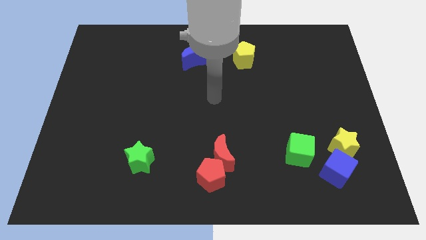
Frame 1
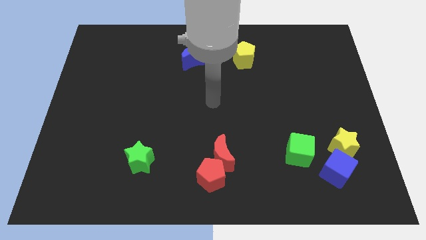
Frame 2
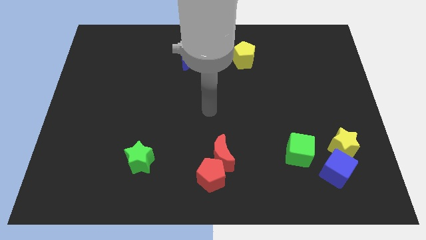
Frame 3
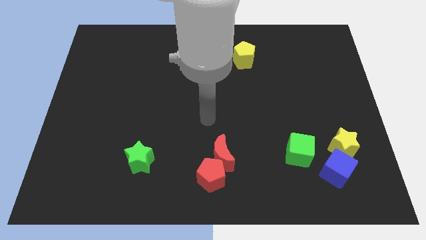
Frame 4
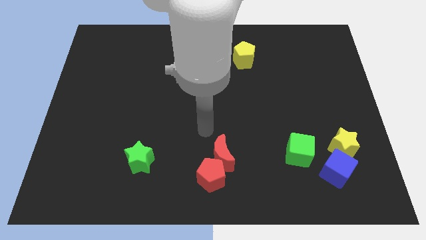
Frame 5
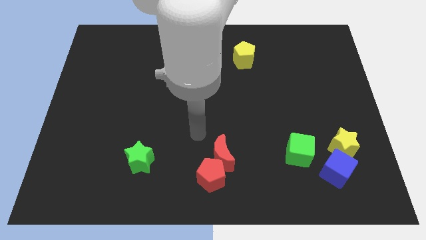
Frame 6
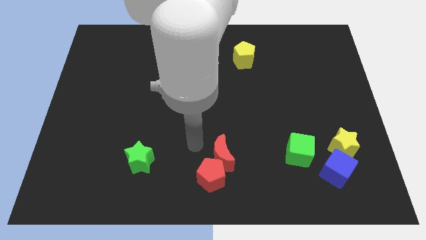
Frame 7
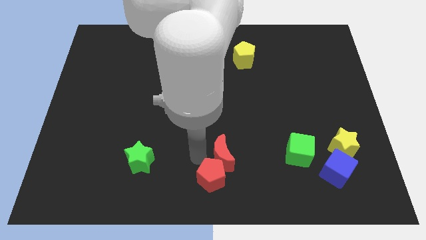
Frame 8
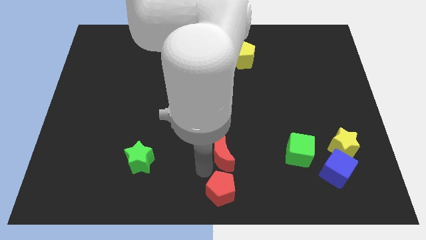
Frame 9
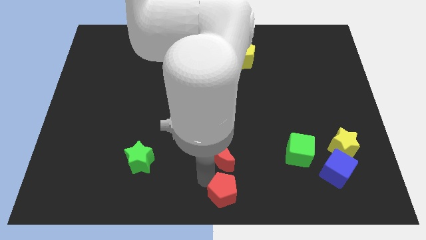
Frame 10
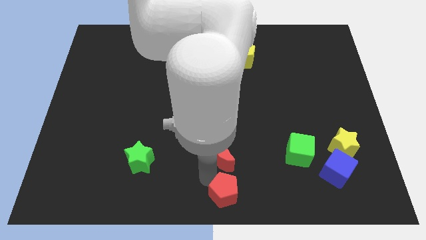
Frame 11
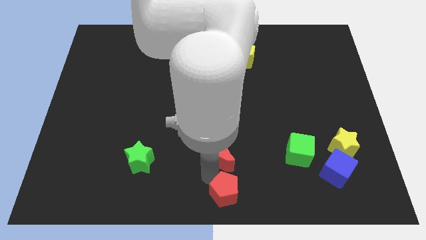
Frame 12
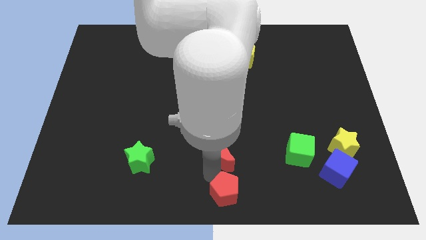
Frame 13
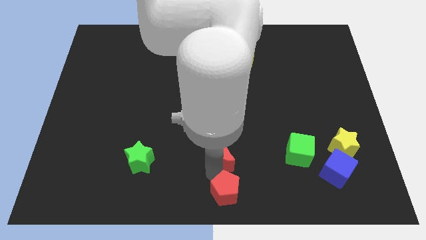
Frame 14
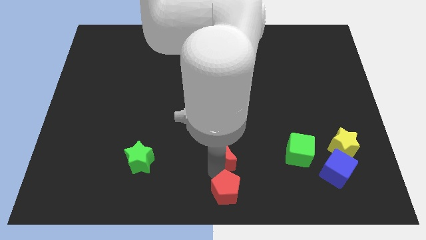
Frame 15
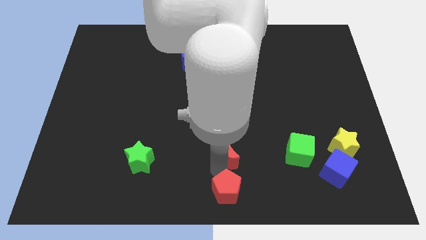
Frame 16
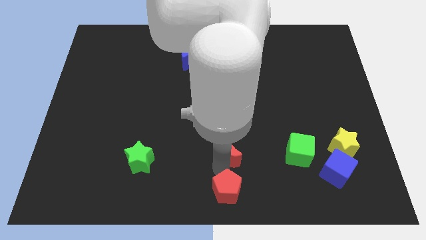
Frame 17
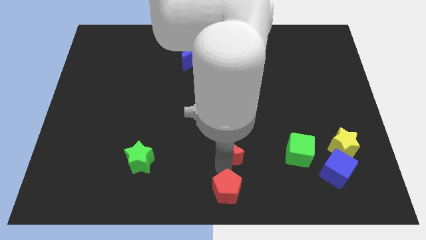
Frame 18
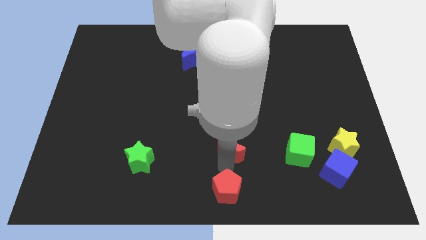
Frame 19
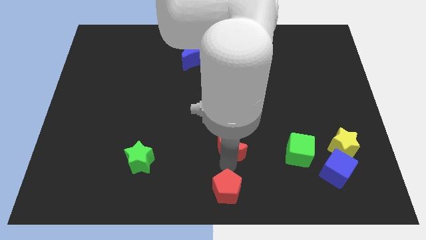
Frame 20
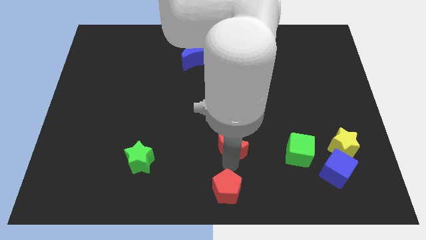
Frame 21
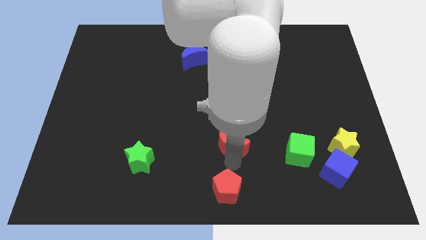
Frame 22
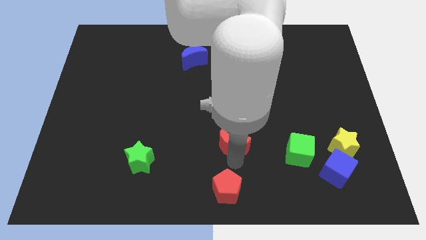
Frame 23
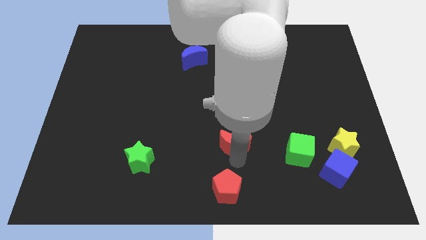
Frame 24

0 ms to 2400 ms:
separate the red moon from the red pentagon

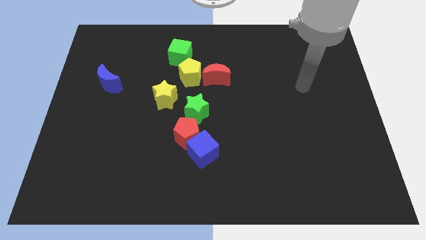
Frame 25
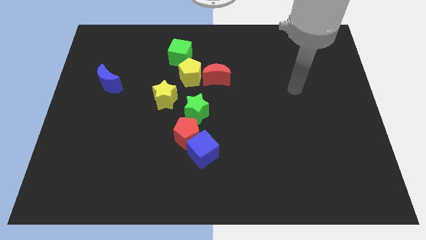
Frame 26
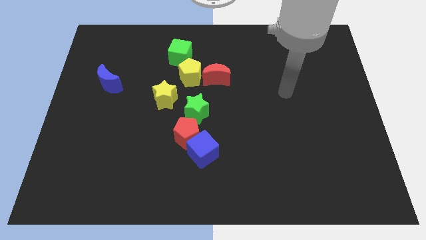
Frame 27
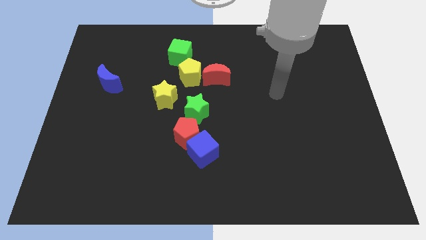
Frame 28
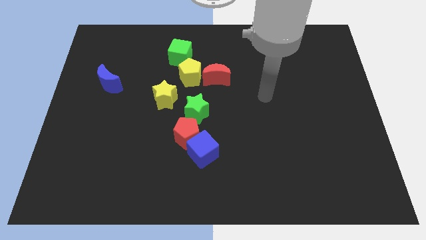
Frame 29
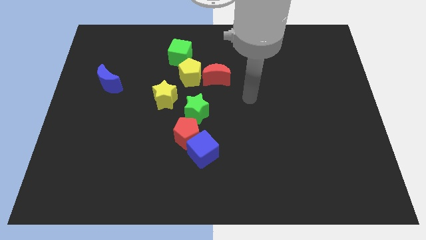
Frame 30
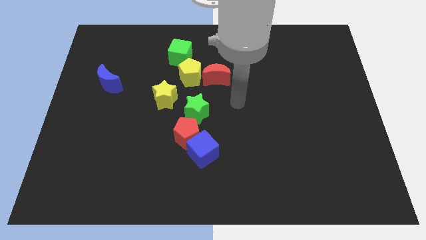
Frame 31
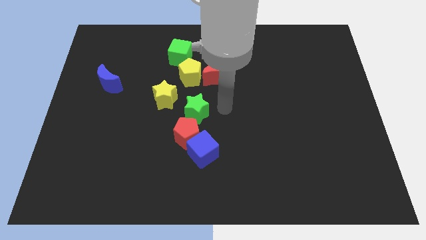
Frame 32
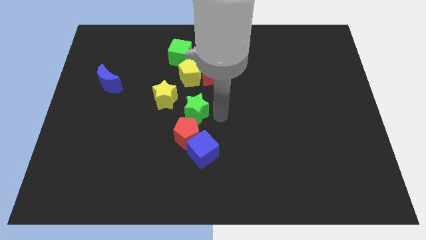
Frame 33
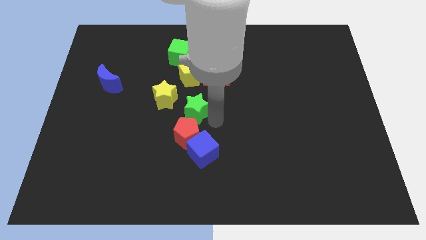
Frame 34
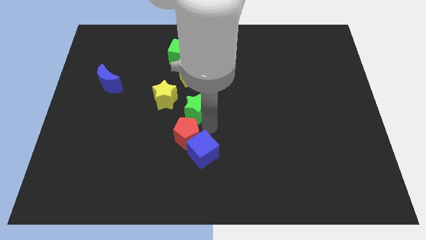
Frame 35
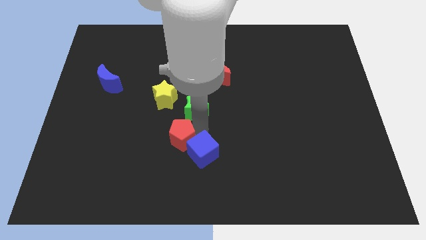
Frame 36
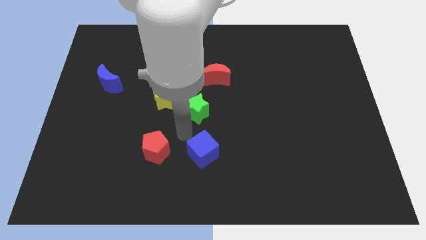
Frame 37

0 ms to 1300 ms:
move the blue cube away from the red pentagon

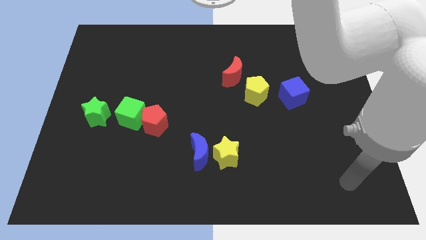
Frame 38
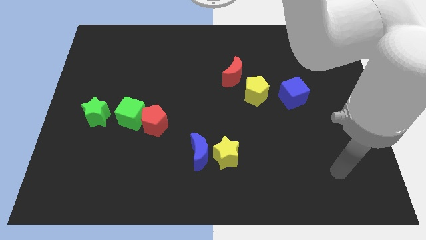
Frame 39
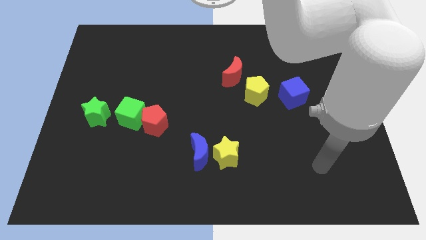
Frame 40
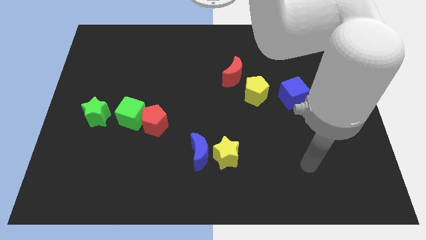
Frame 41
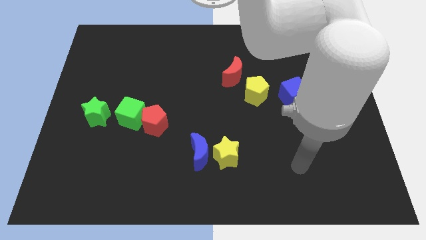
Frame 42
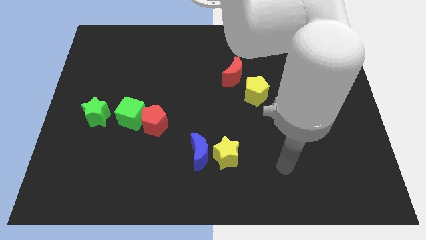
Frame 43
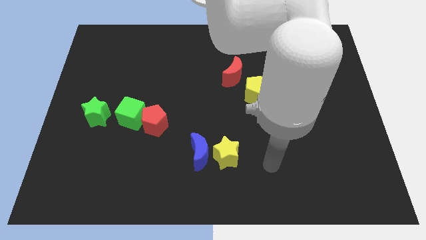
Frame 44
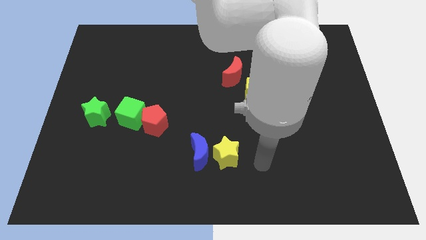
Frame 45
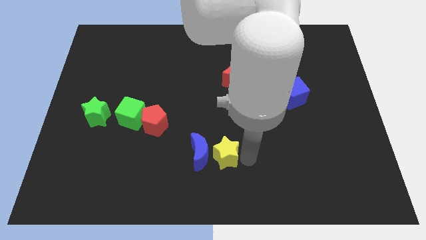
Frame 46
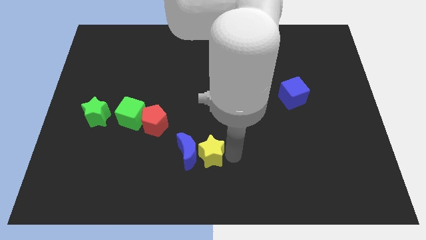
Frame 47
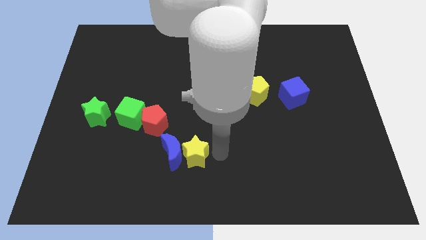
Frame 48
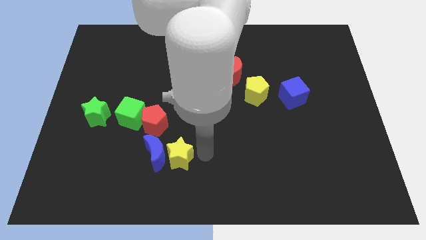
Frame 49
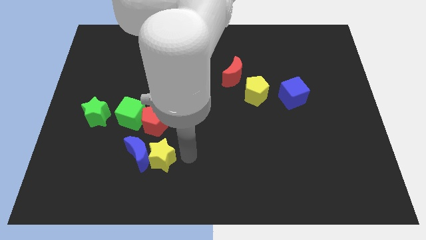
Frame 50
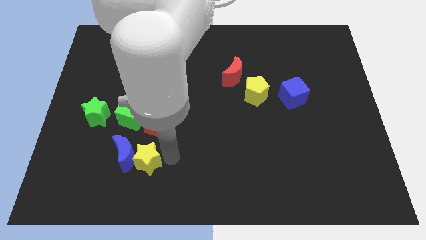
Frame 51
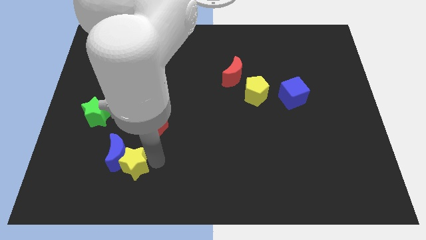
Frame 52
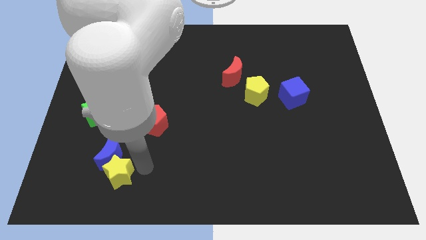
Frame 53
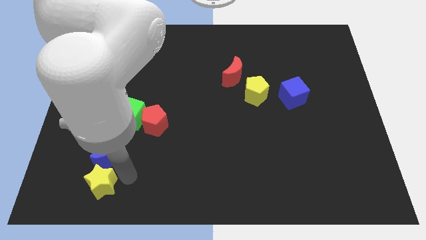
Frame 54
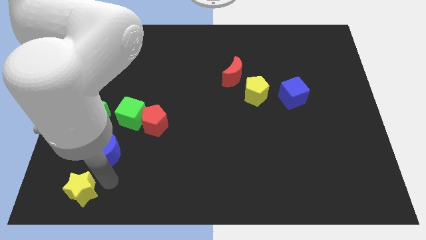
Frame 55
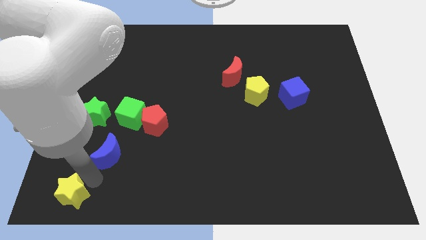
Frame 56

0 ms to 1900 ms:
separate the blue moon from the yellow star

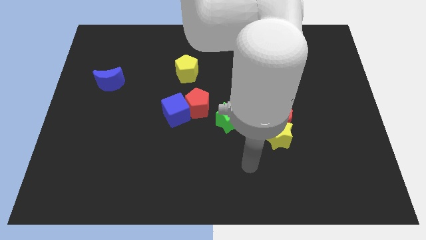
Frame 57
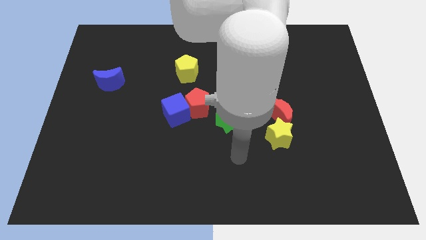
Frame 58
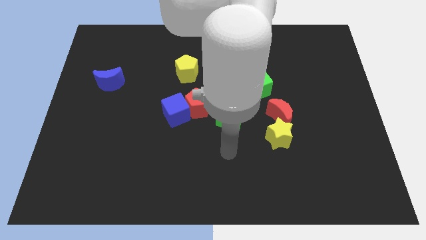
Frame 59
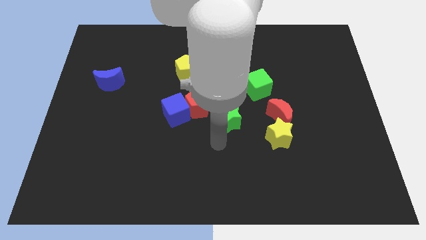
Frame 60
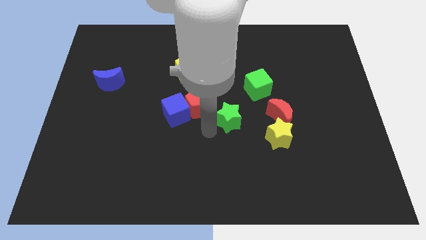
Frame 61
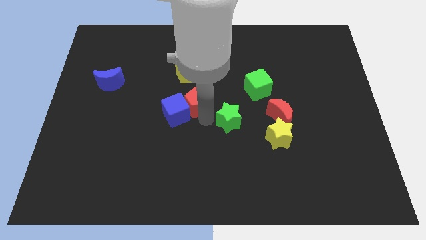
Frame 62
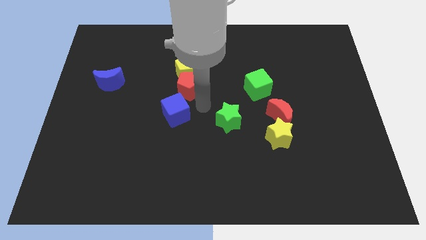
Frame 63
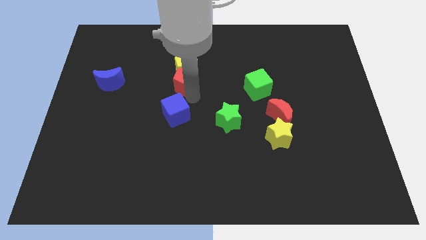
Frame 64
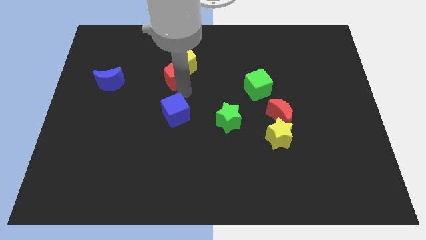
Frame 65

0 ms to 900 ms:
pull the blue cube apart from the red pentagon

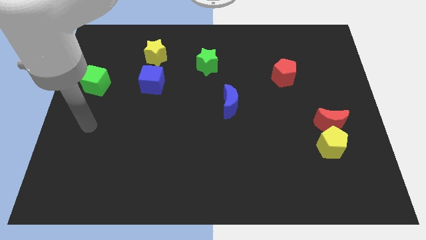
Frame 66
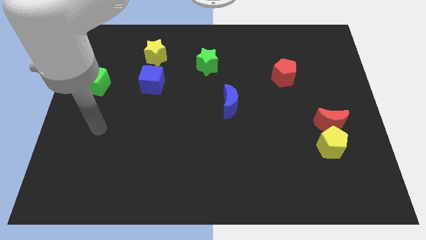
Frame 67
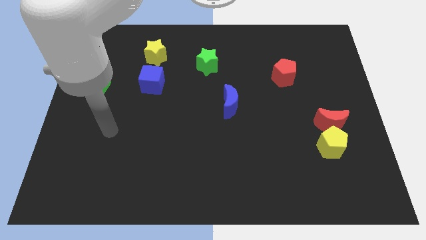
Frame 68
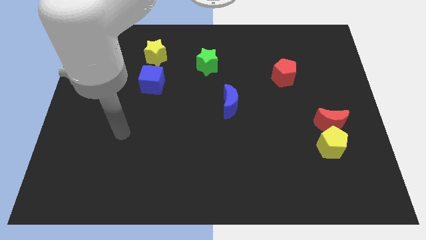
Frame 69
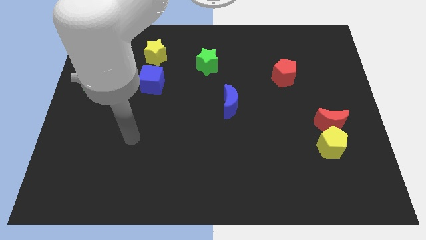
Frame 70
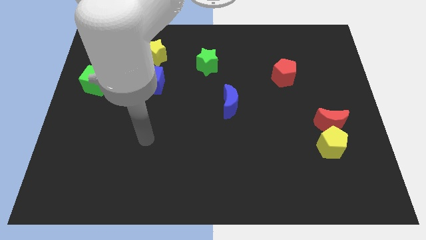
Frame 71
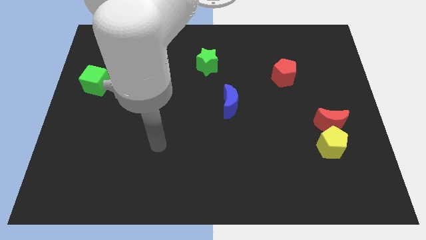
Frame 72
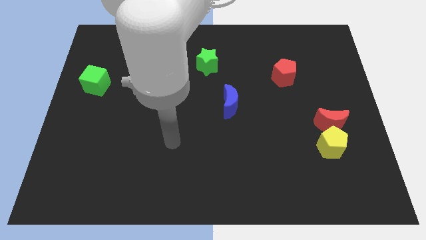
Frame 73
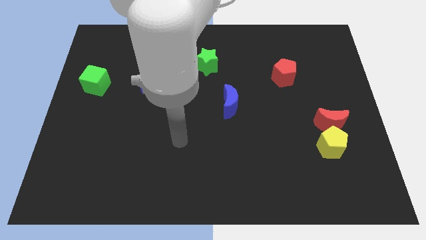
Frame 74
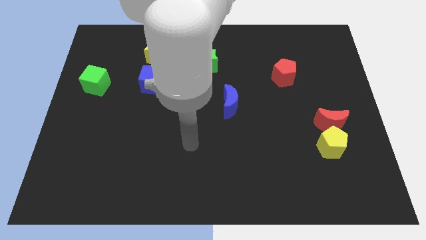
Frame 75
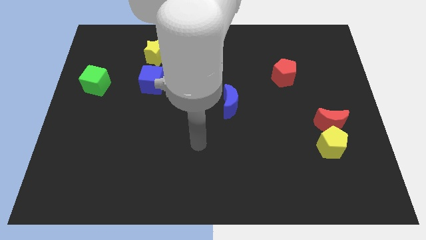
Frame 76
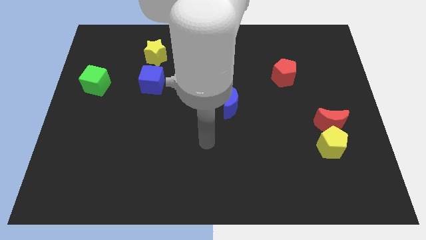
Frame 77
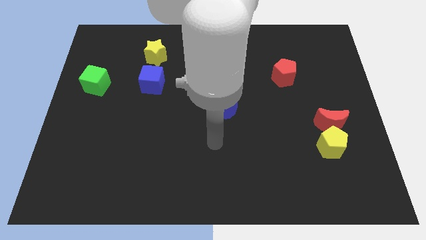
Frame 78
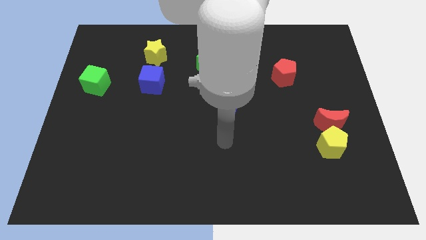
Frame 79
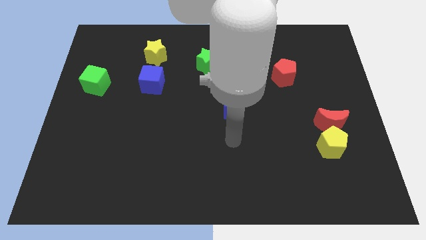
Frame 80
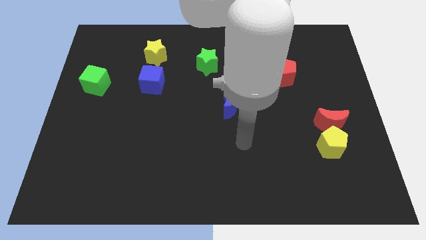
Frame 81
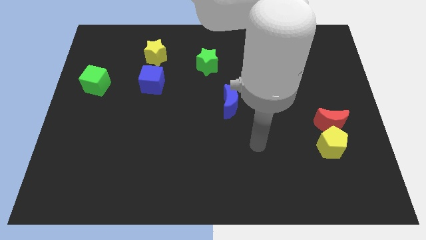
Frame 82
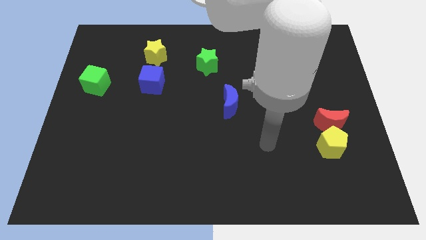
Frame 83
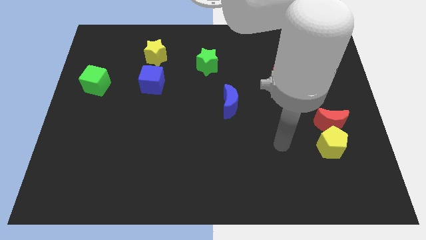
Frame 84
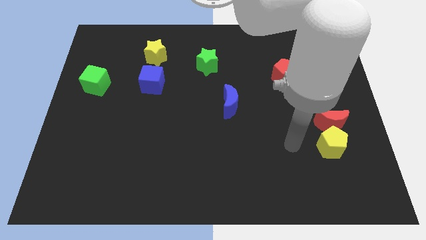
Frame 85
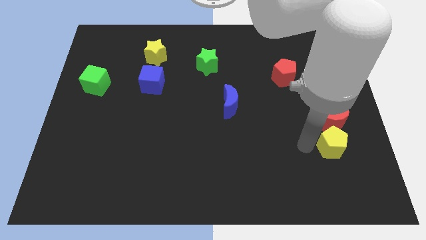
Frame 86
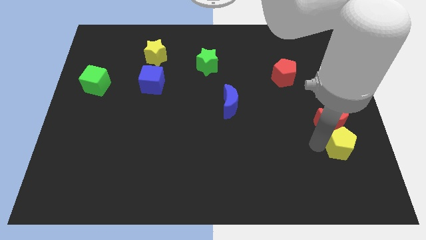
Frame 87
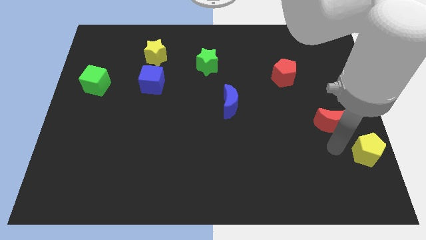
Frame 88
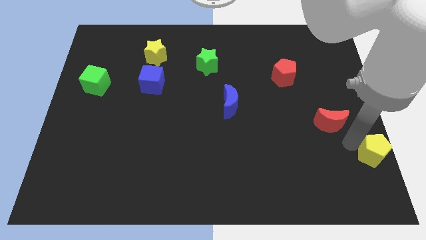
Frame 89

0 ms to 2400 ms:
pull the red moon apart from the yellow pentagon

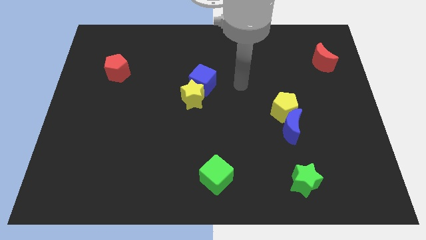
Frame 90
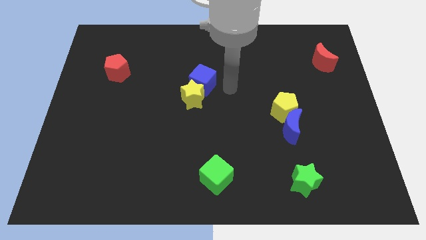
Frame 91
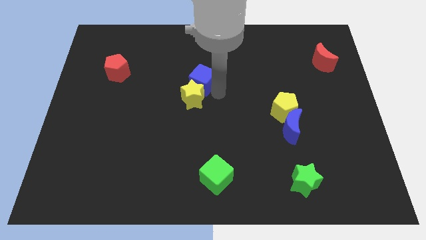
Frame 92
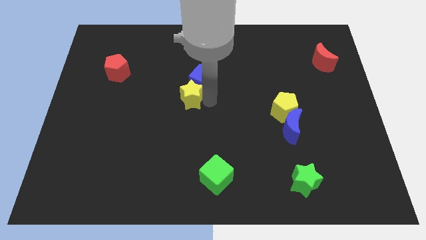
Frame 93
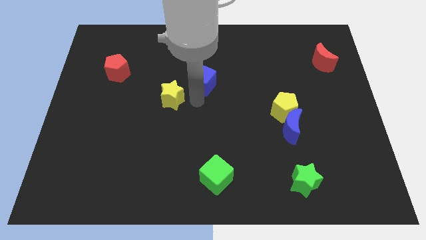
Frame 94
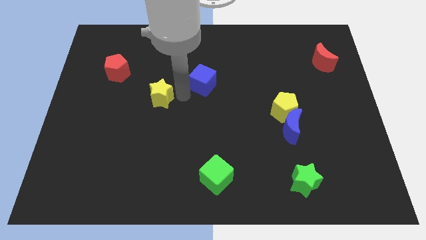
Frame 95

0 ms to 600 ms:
separate the blue cube from the yellow star
